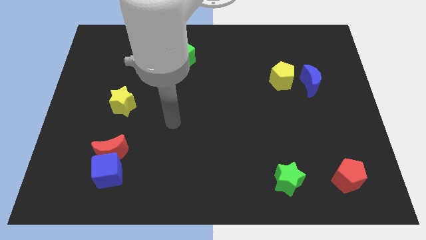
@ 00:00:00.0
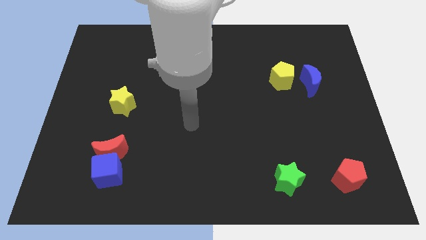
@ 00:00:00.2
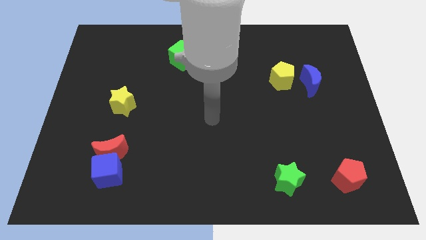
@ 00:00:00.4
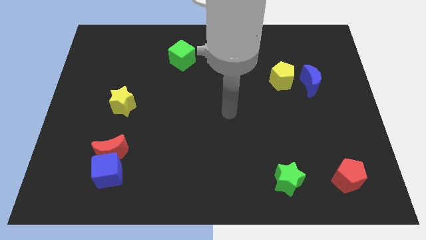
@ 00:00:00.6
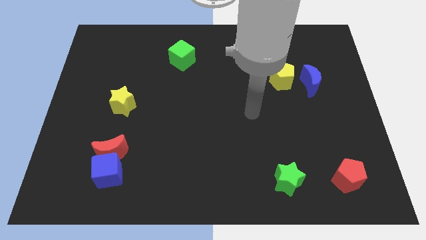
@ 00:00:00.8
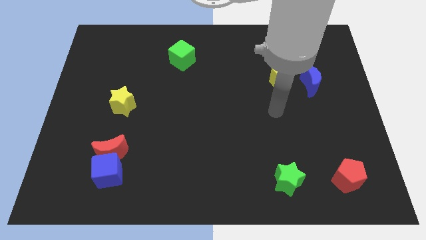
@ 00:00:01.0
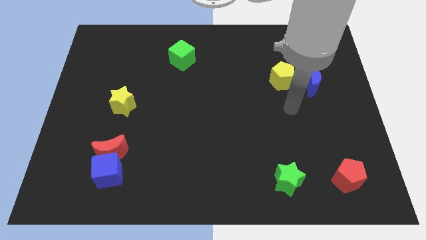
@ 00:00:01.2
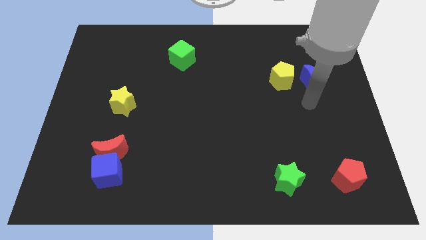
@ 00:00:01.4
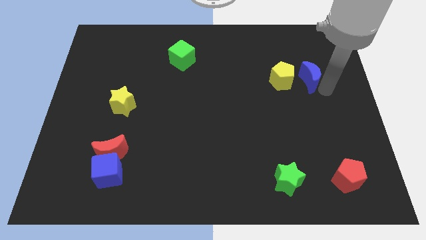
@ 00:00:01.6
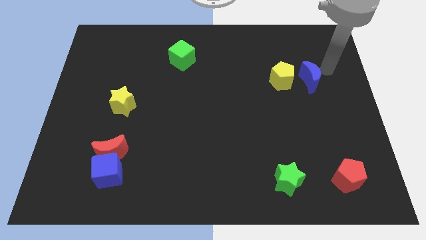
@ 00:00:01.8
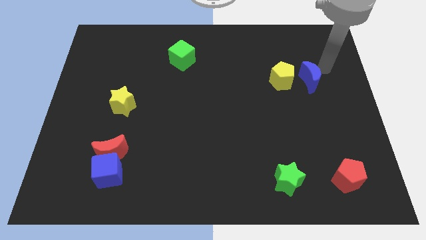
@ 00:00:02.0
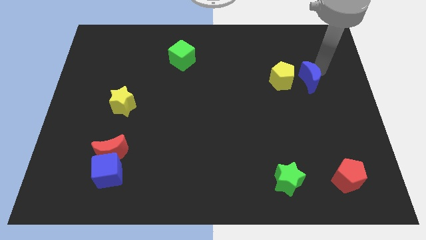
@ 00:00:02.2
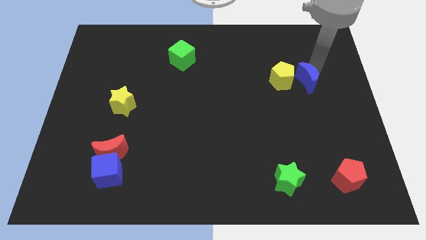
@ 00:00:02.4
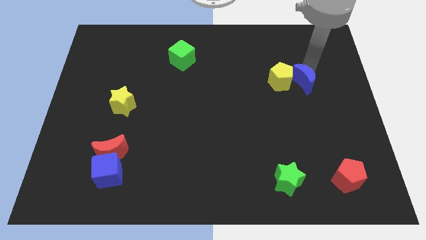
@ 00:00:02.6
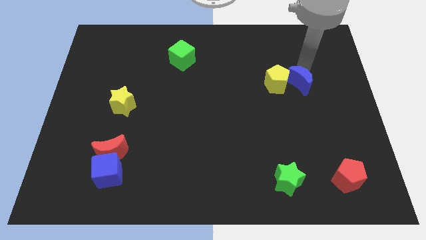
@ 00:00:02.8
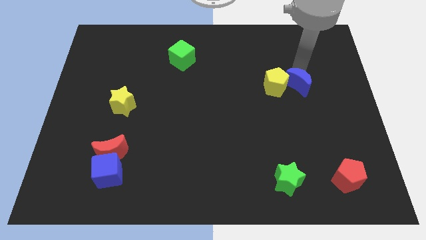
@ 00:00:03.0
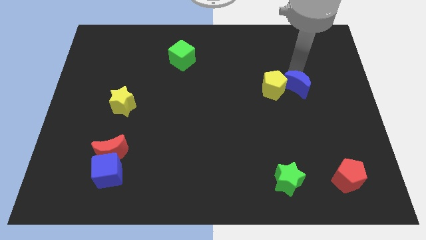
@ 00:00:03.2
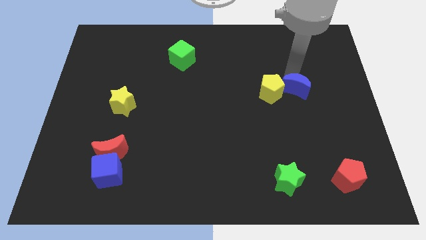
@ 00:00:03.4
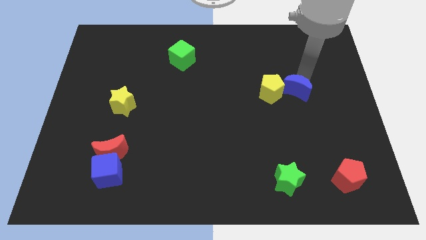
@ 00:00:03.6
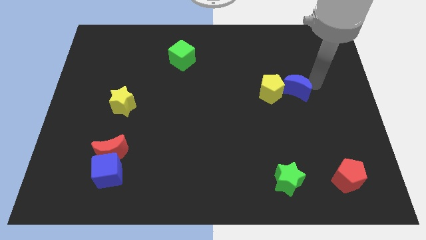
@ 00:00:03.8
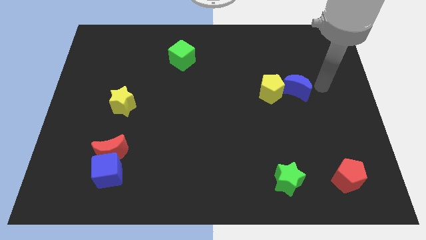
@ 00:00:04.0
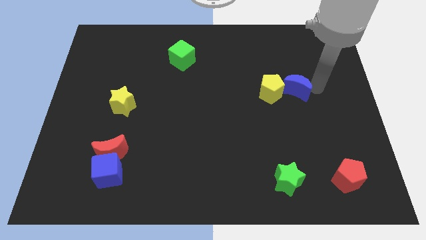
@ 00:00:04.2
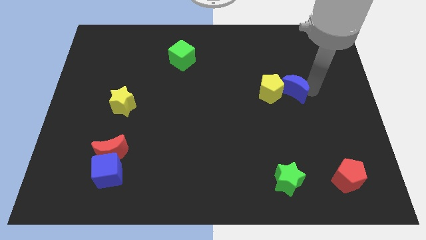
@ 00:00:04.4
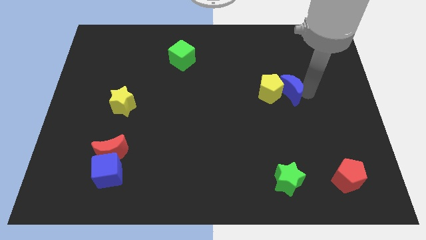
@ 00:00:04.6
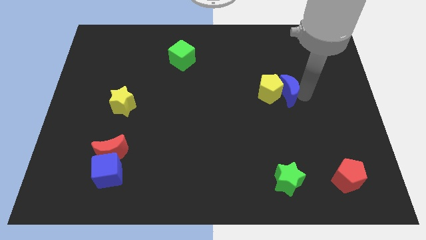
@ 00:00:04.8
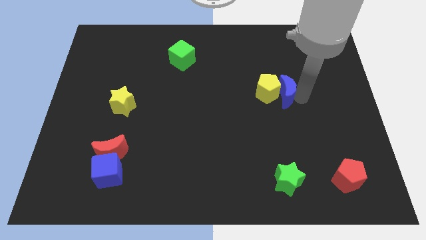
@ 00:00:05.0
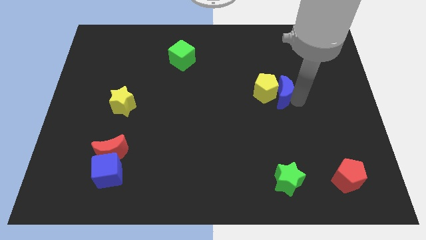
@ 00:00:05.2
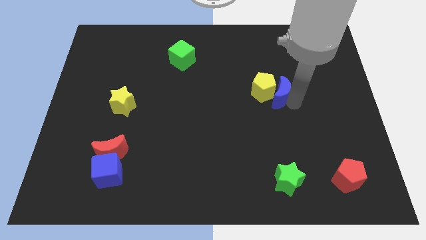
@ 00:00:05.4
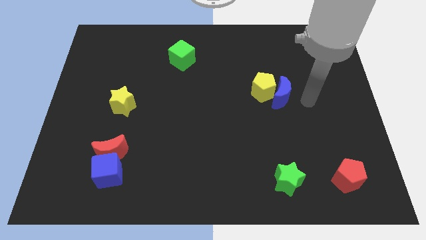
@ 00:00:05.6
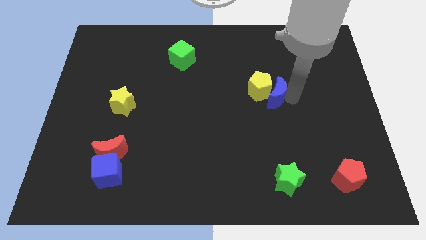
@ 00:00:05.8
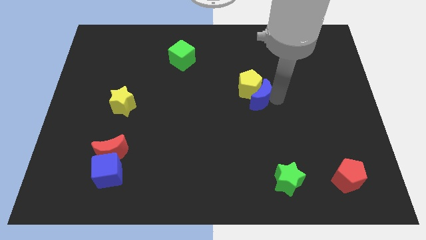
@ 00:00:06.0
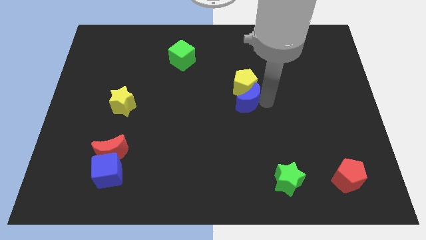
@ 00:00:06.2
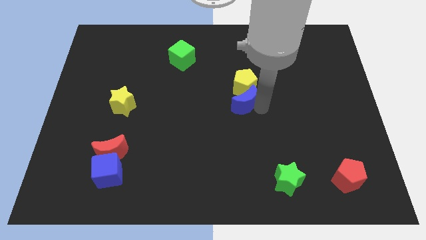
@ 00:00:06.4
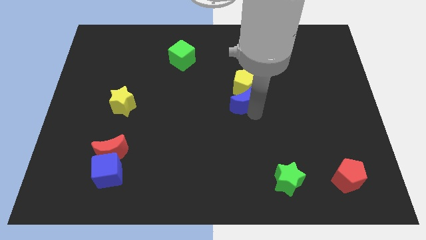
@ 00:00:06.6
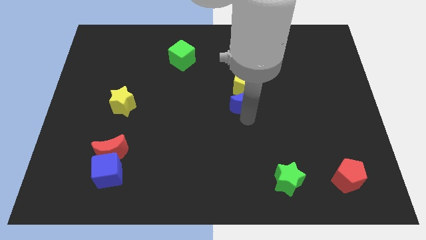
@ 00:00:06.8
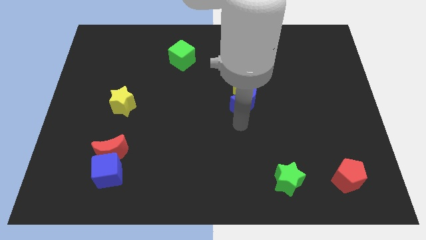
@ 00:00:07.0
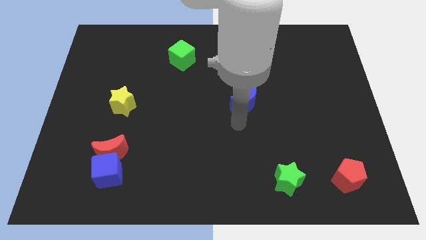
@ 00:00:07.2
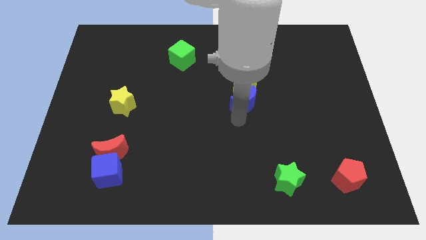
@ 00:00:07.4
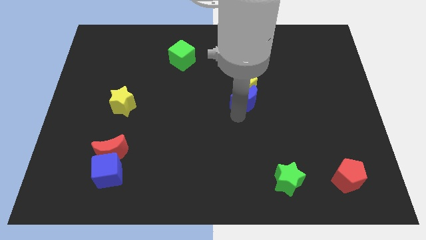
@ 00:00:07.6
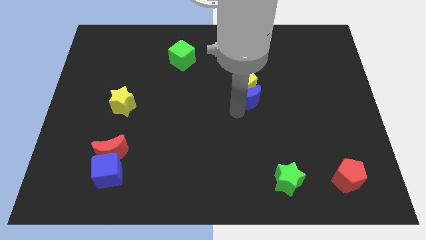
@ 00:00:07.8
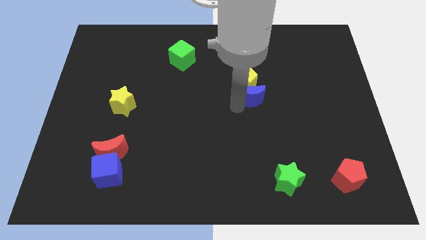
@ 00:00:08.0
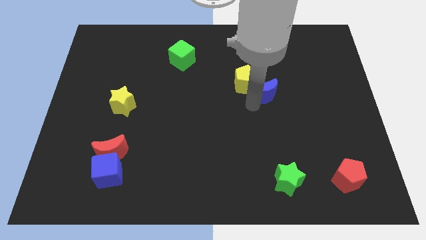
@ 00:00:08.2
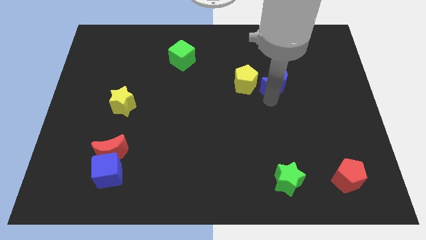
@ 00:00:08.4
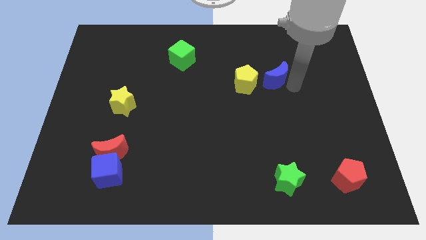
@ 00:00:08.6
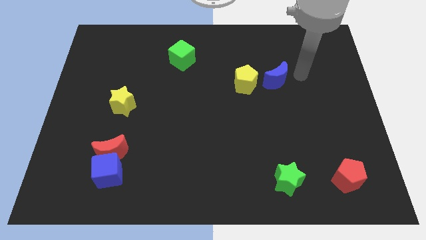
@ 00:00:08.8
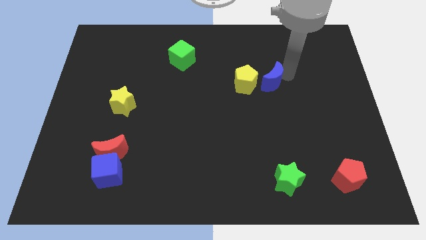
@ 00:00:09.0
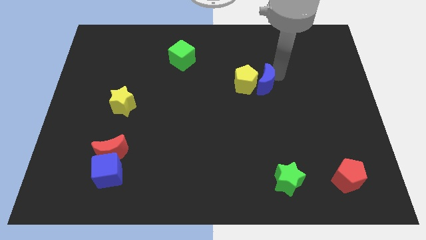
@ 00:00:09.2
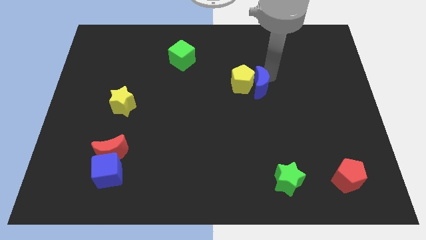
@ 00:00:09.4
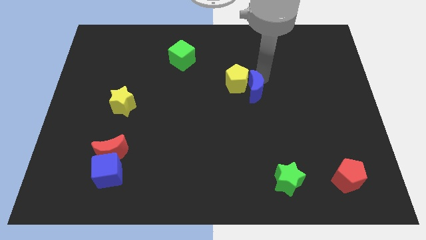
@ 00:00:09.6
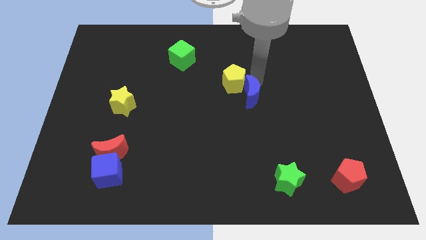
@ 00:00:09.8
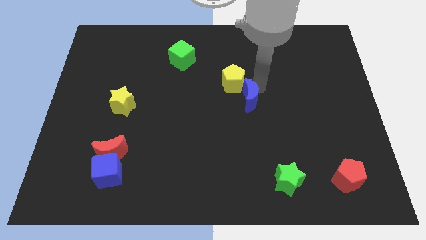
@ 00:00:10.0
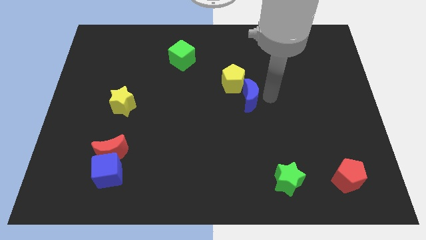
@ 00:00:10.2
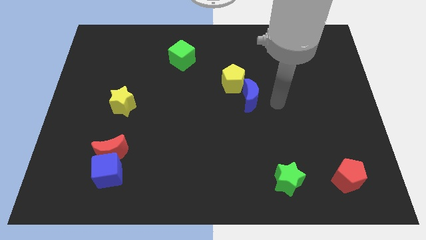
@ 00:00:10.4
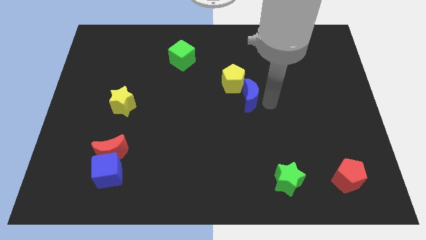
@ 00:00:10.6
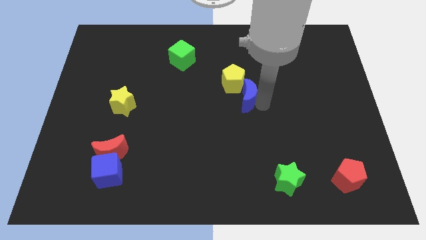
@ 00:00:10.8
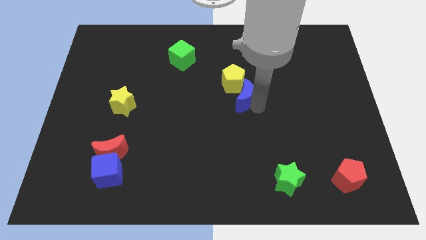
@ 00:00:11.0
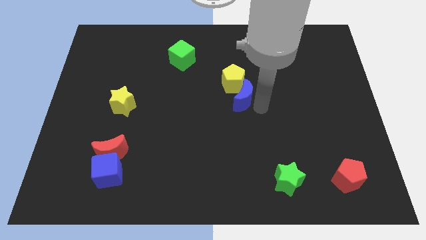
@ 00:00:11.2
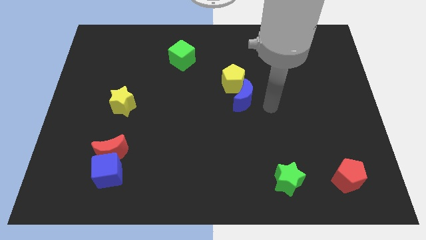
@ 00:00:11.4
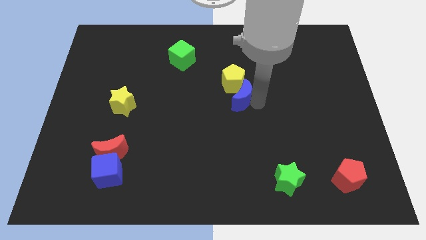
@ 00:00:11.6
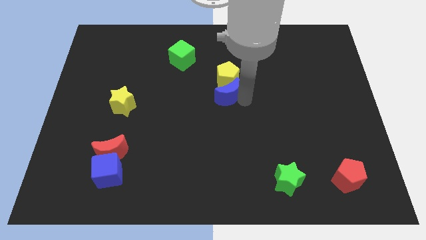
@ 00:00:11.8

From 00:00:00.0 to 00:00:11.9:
move the blue moon to the left
